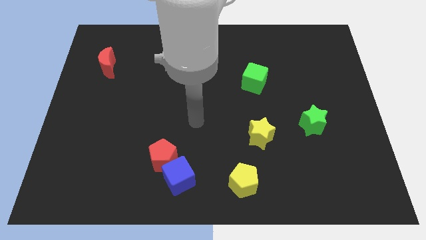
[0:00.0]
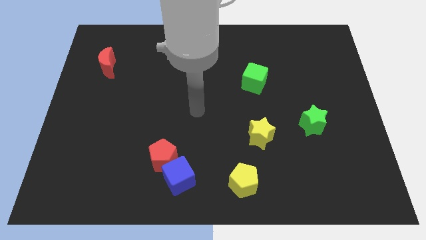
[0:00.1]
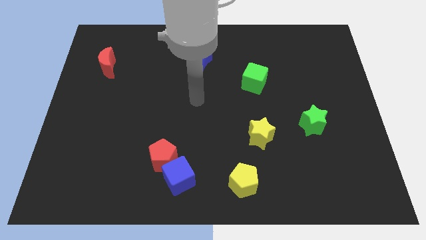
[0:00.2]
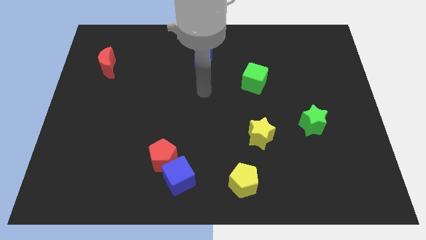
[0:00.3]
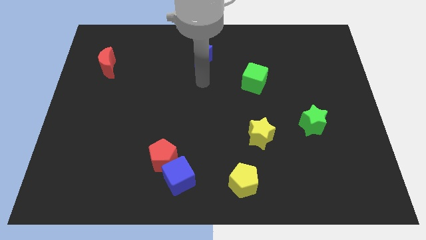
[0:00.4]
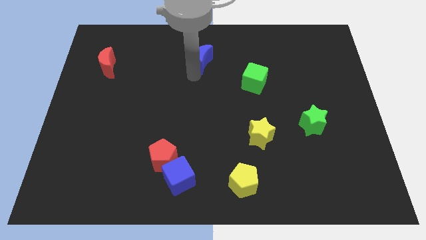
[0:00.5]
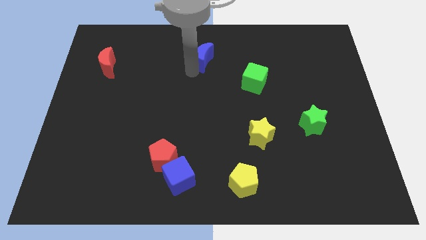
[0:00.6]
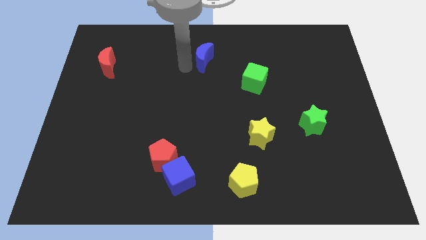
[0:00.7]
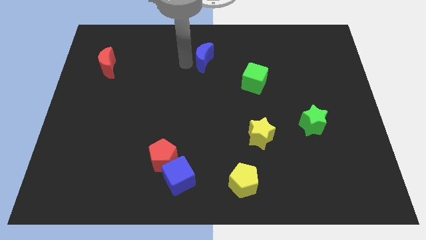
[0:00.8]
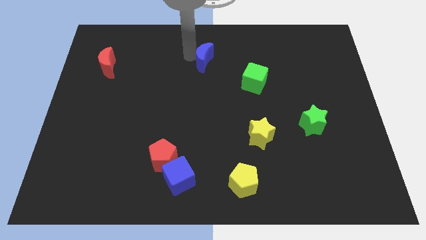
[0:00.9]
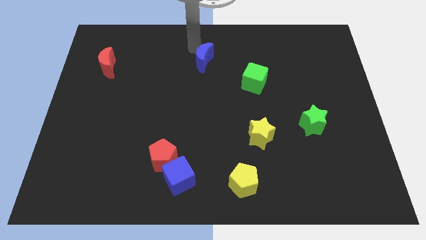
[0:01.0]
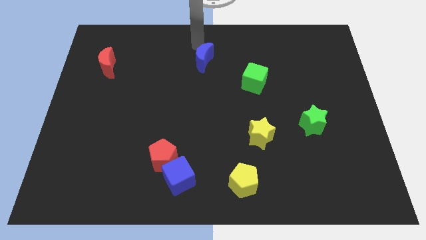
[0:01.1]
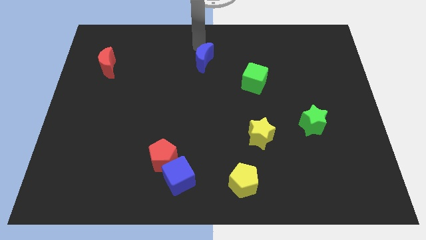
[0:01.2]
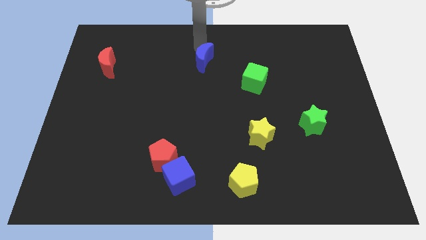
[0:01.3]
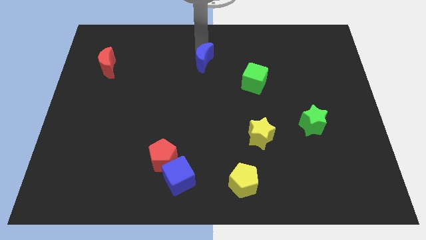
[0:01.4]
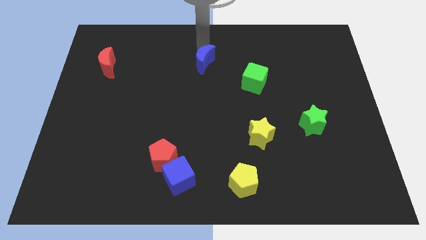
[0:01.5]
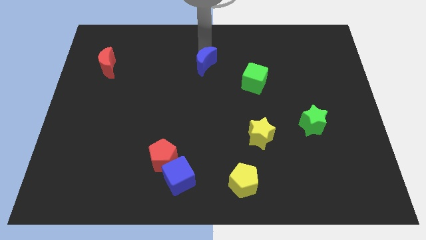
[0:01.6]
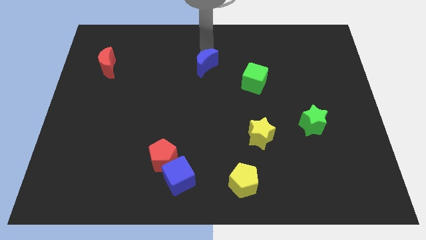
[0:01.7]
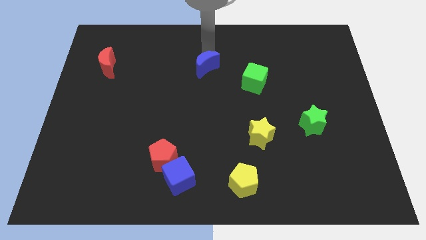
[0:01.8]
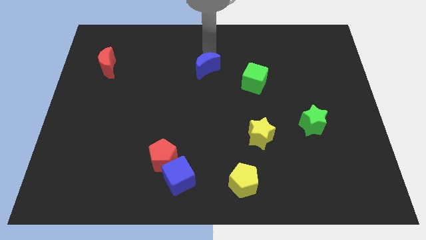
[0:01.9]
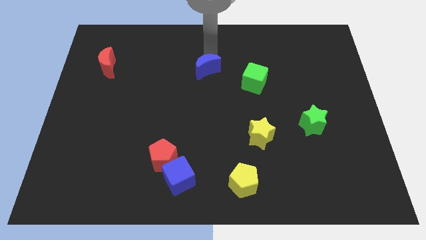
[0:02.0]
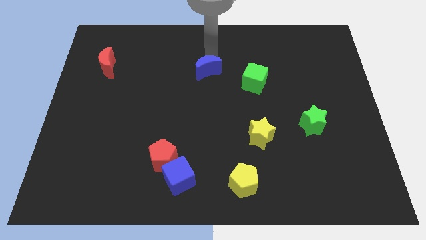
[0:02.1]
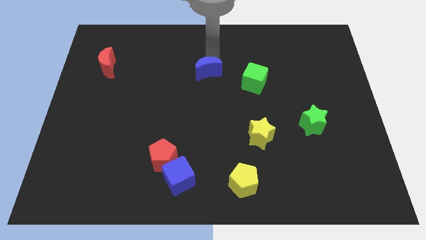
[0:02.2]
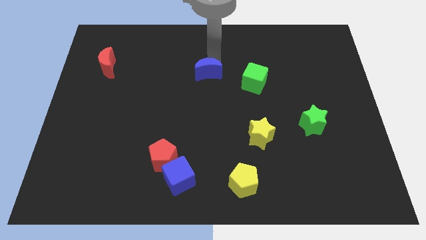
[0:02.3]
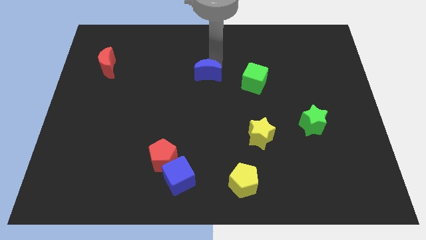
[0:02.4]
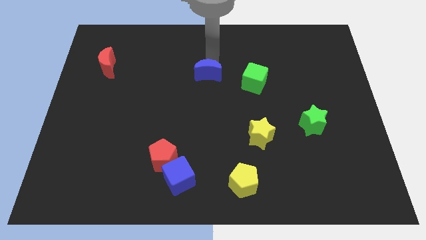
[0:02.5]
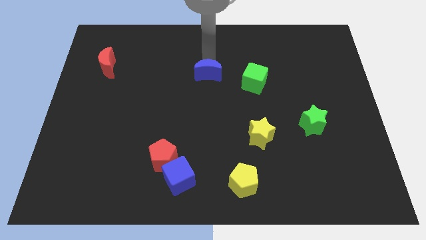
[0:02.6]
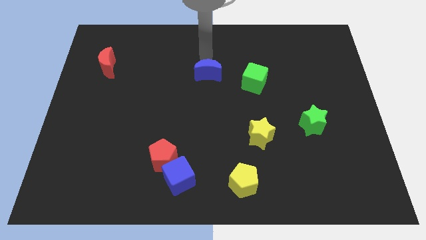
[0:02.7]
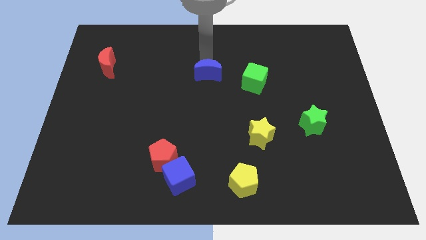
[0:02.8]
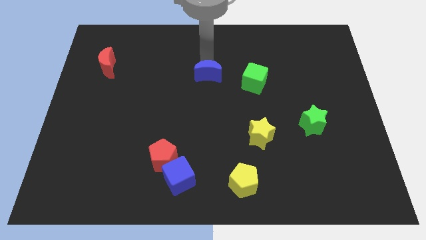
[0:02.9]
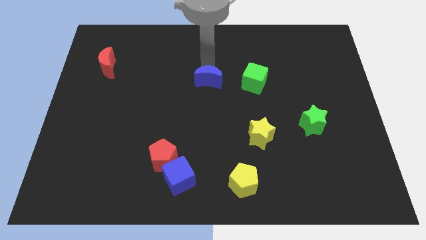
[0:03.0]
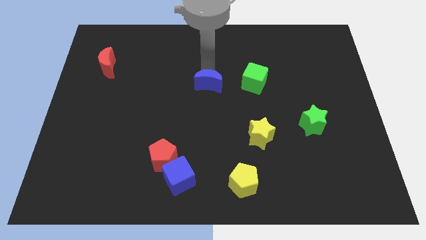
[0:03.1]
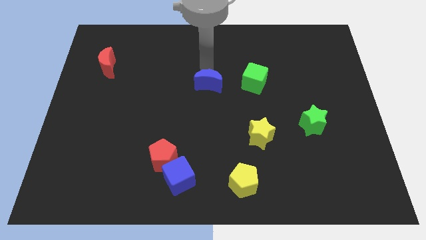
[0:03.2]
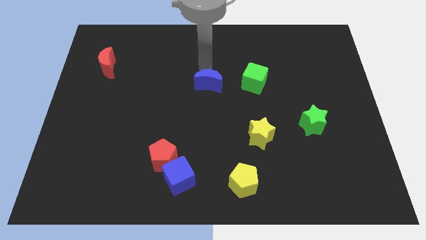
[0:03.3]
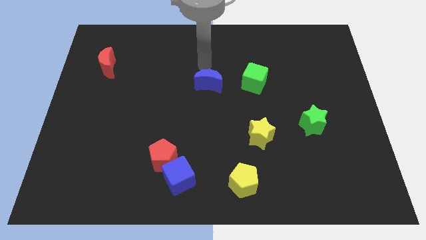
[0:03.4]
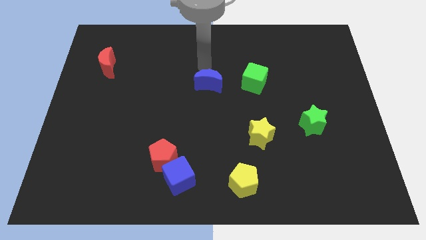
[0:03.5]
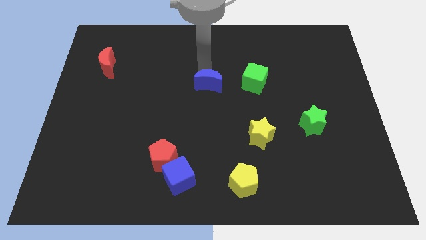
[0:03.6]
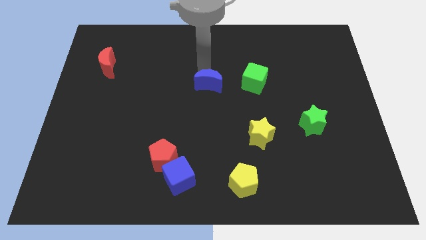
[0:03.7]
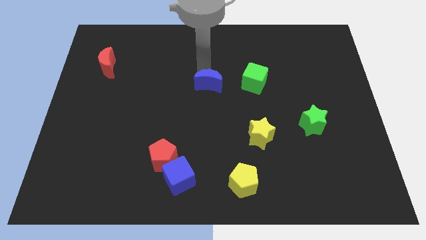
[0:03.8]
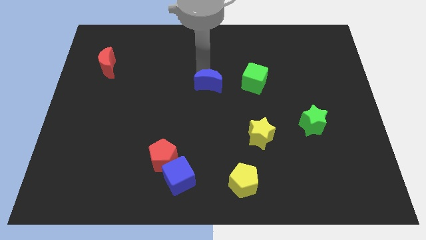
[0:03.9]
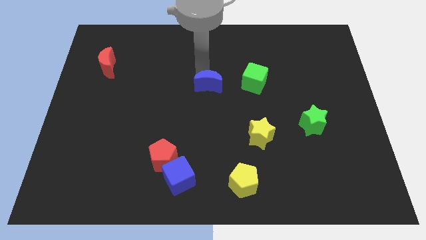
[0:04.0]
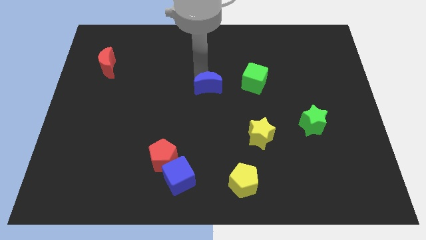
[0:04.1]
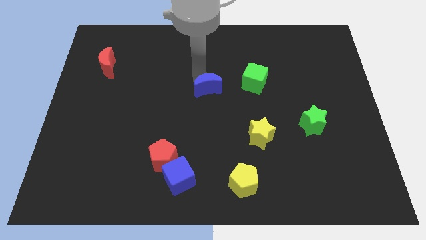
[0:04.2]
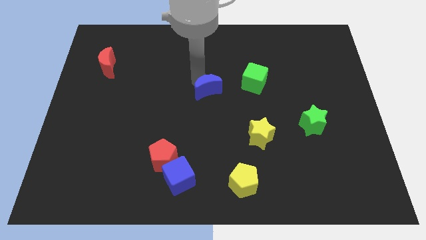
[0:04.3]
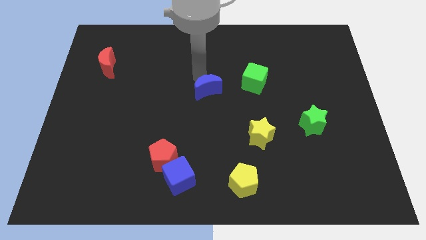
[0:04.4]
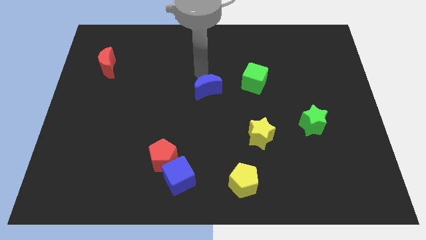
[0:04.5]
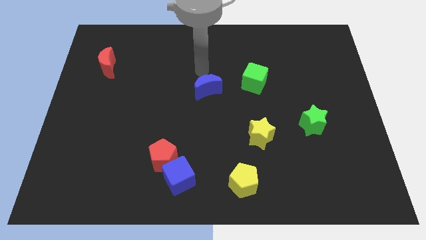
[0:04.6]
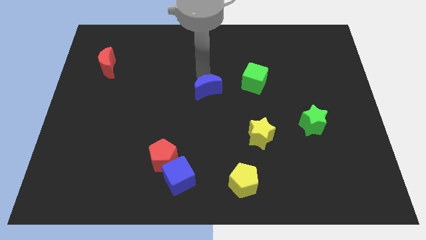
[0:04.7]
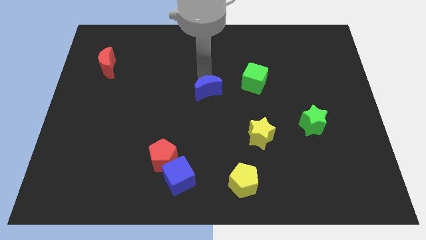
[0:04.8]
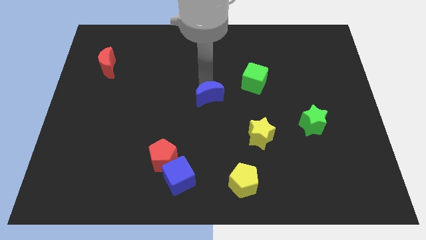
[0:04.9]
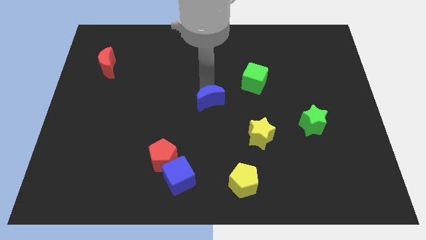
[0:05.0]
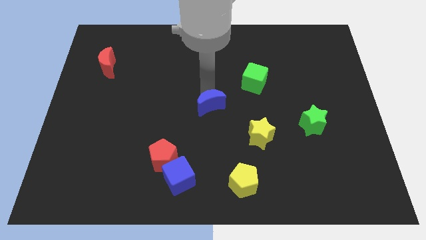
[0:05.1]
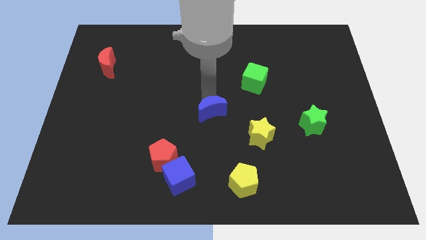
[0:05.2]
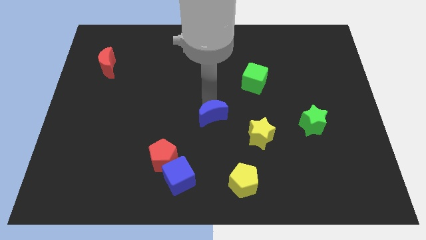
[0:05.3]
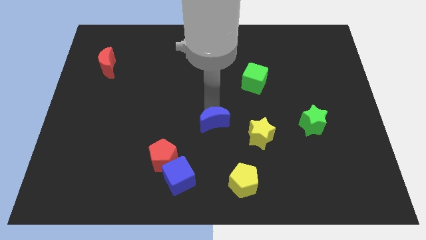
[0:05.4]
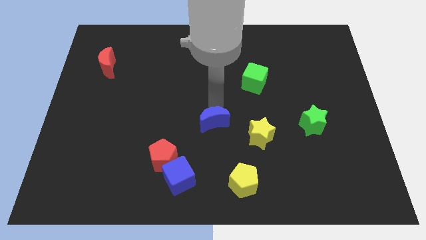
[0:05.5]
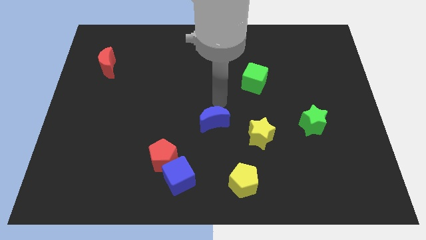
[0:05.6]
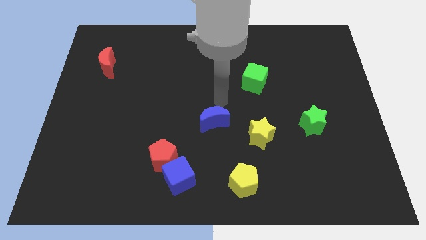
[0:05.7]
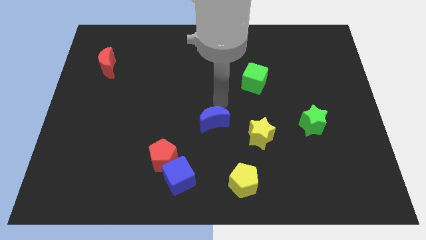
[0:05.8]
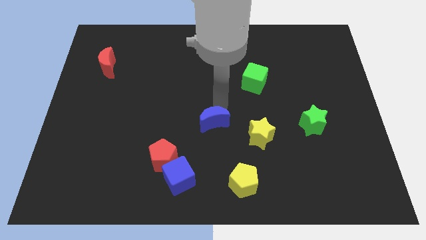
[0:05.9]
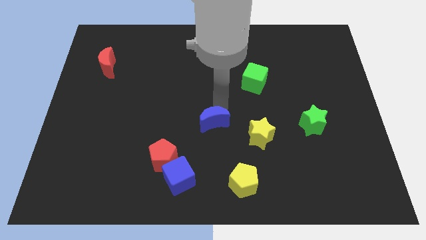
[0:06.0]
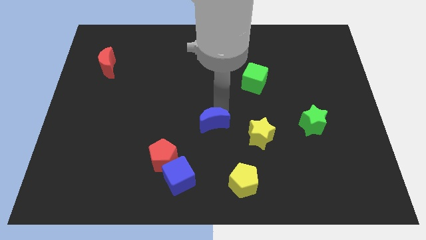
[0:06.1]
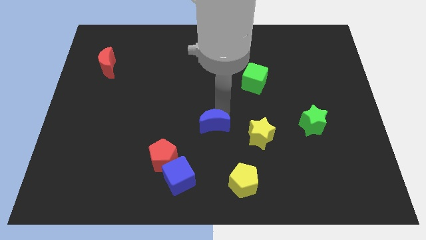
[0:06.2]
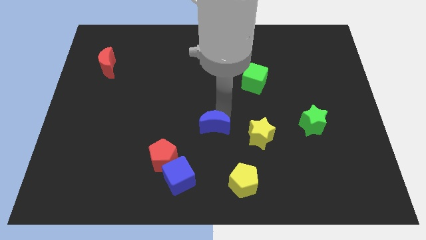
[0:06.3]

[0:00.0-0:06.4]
slide the blue moon down

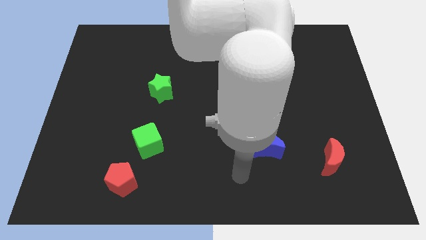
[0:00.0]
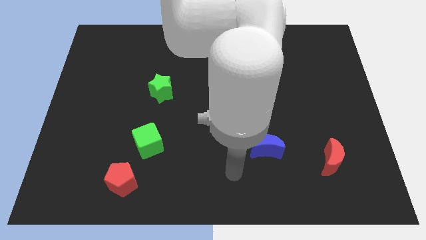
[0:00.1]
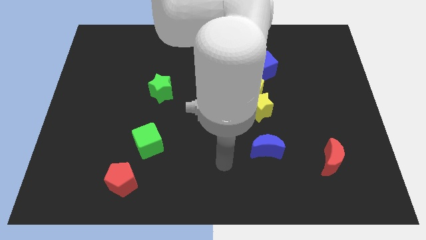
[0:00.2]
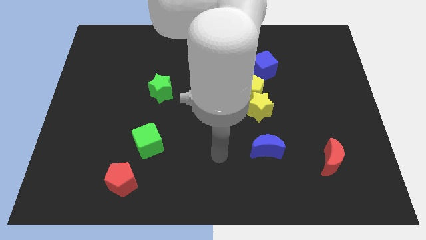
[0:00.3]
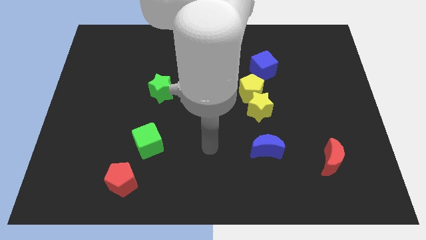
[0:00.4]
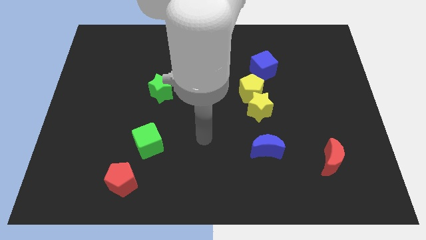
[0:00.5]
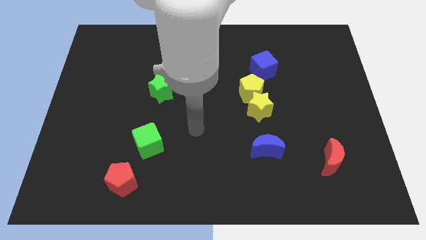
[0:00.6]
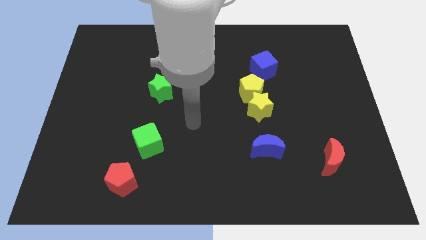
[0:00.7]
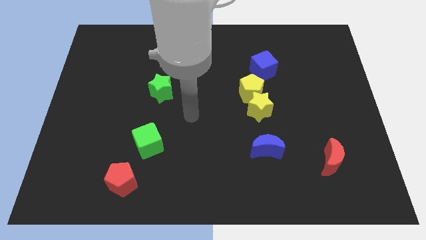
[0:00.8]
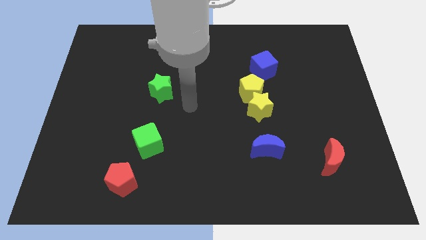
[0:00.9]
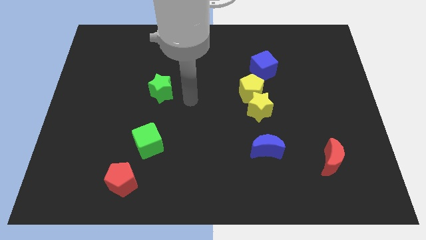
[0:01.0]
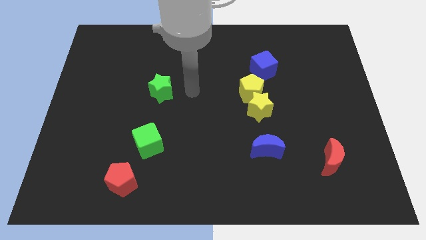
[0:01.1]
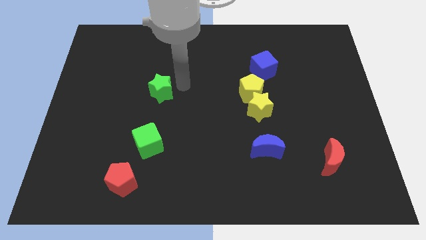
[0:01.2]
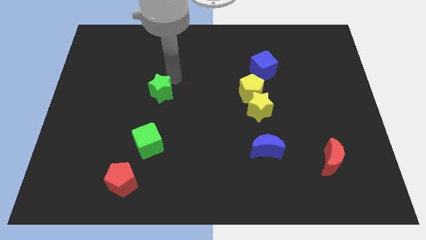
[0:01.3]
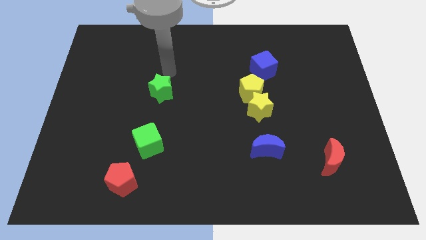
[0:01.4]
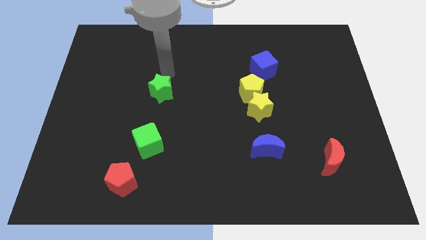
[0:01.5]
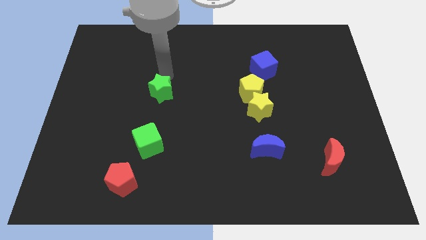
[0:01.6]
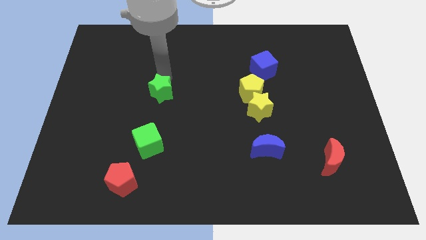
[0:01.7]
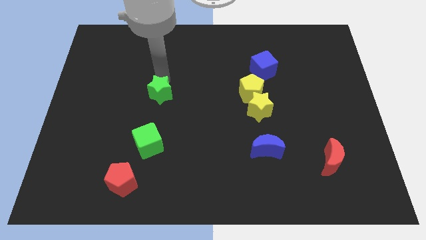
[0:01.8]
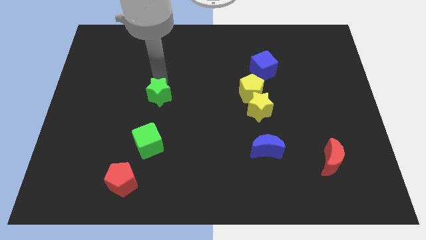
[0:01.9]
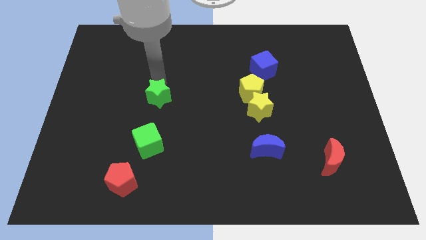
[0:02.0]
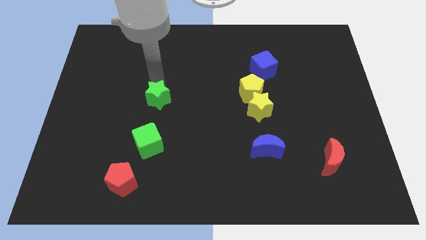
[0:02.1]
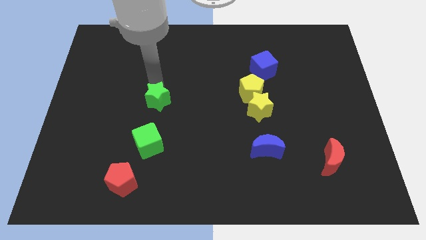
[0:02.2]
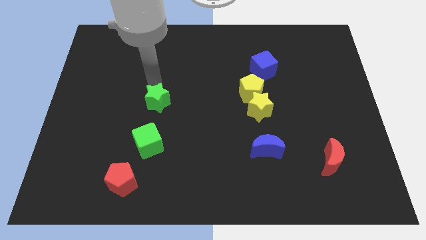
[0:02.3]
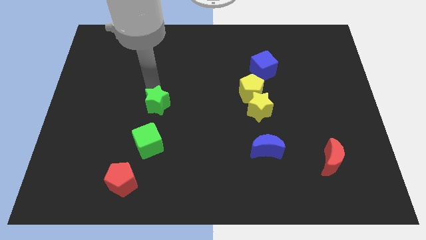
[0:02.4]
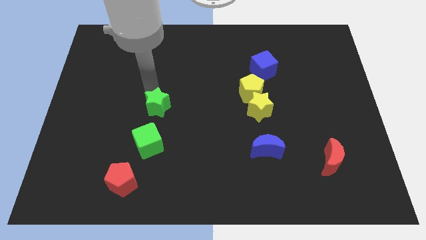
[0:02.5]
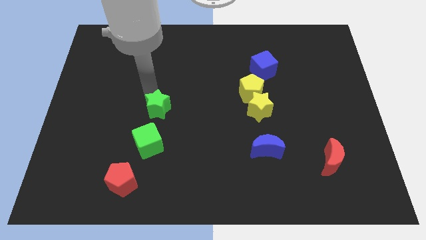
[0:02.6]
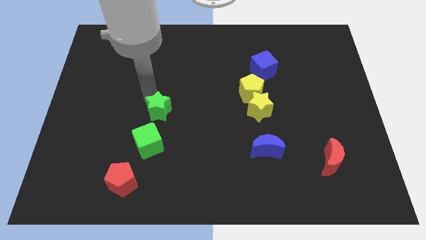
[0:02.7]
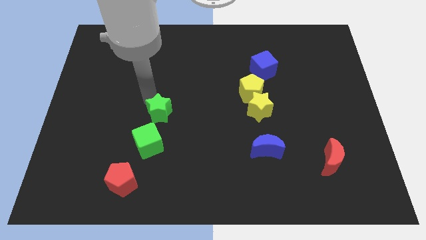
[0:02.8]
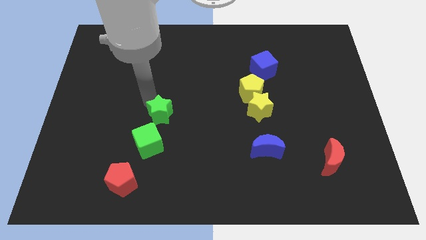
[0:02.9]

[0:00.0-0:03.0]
slightly slide the green star down
